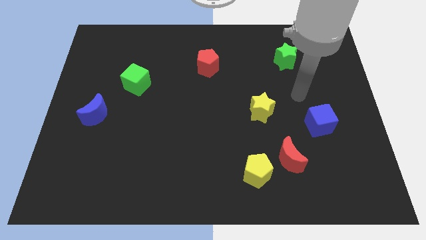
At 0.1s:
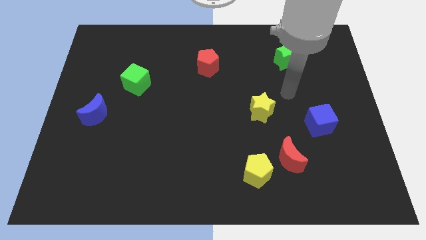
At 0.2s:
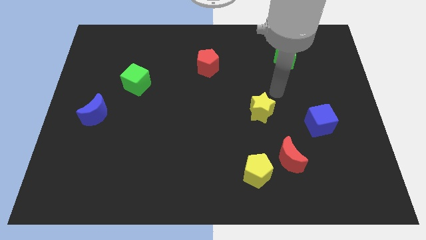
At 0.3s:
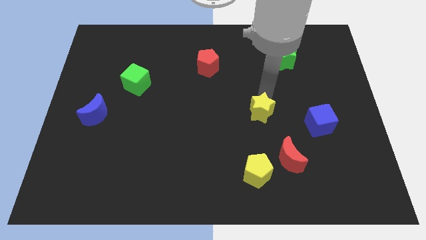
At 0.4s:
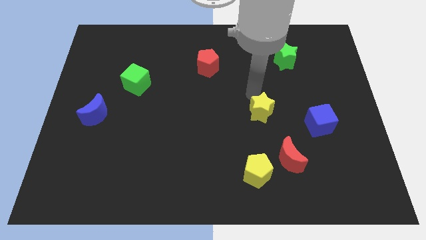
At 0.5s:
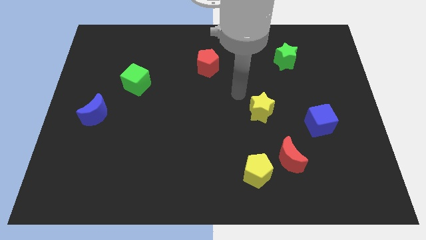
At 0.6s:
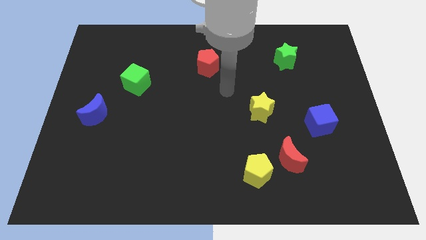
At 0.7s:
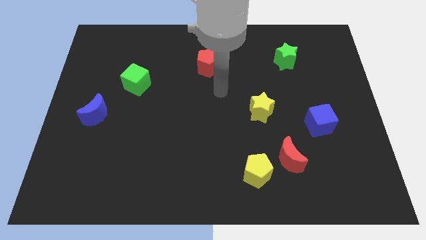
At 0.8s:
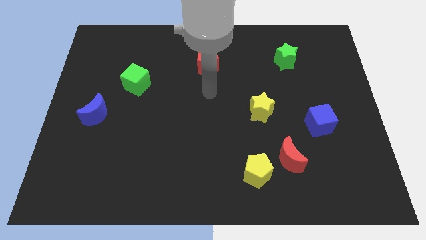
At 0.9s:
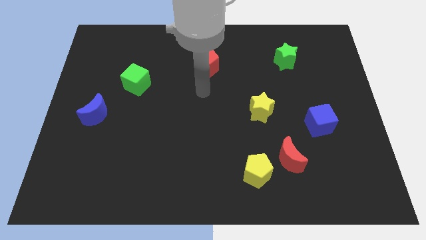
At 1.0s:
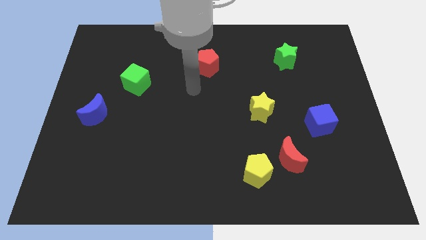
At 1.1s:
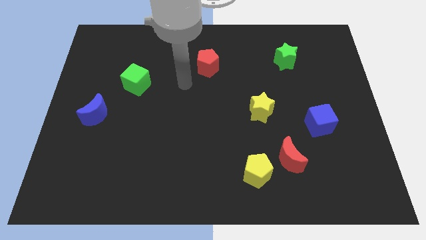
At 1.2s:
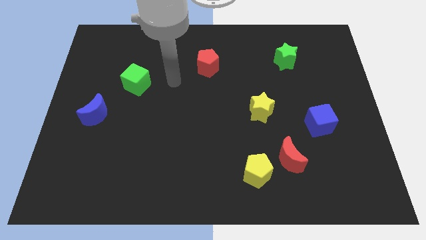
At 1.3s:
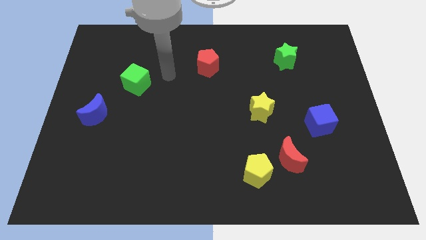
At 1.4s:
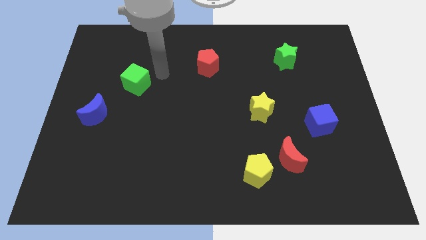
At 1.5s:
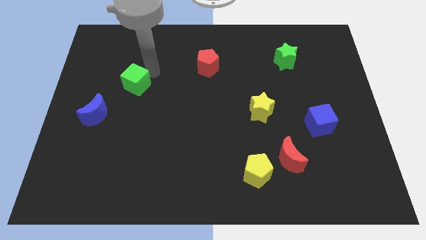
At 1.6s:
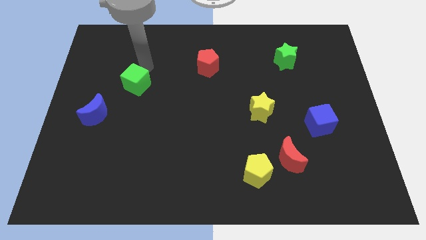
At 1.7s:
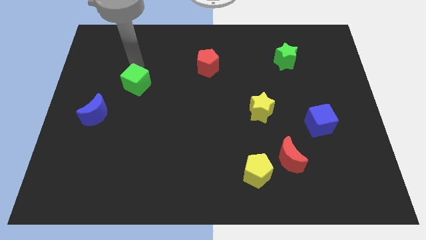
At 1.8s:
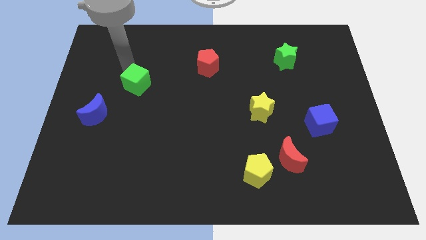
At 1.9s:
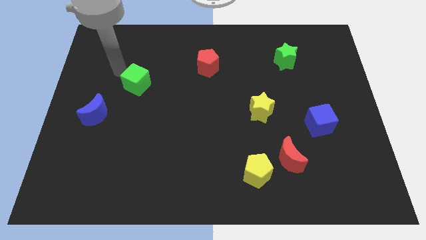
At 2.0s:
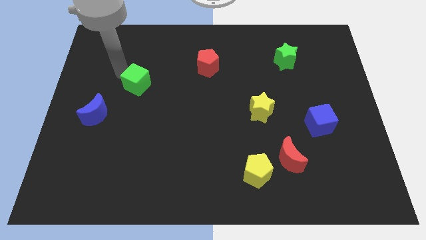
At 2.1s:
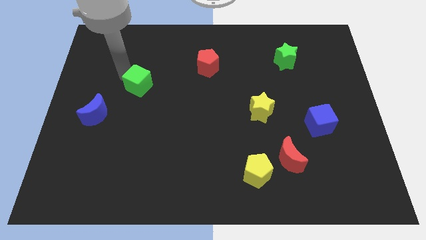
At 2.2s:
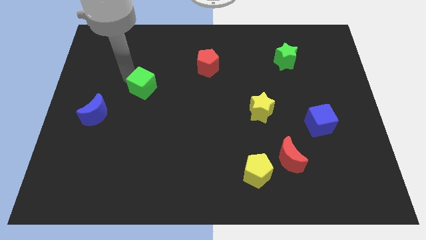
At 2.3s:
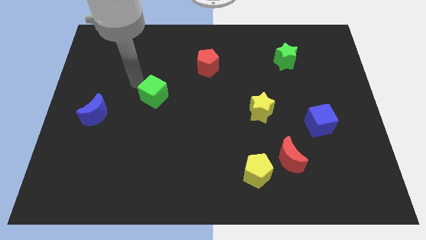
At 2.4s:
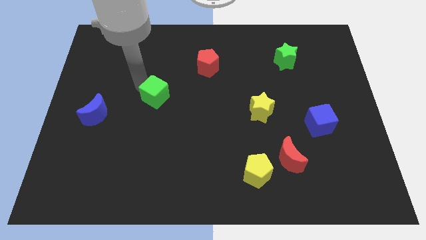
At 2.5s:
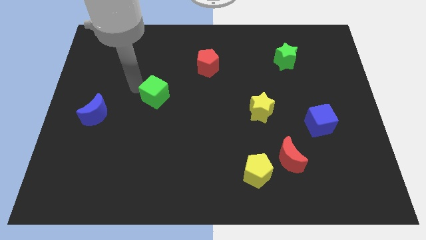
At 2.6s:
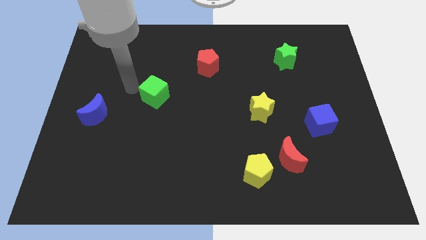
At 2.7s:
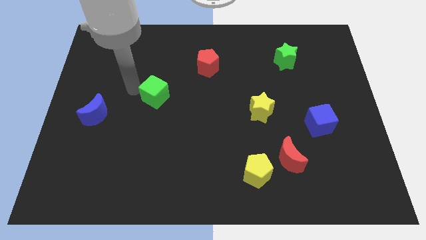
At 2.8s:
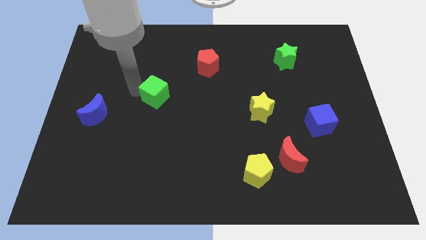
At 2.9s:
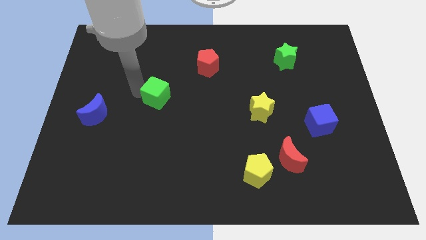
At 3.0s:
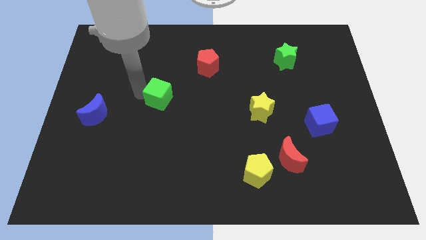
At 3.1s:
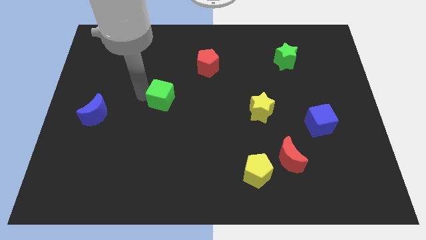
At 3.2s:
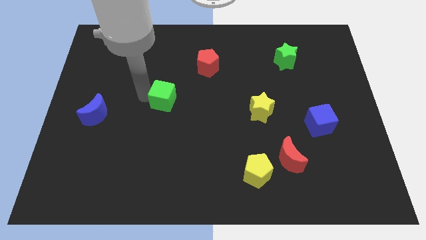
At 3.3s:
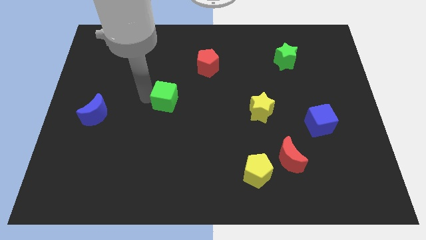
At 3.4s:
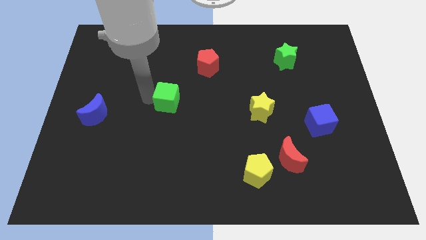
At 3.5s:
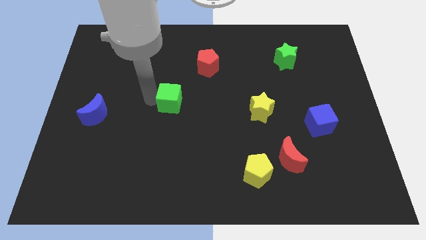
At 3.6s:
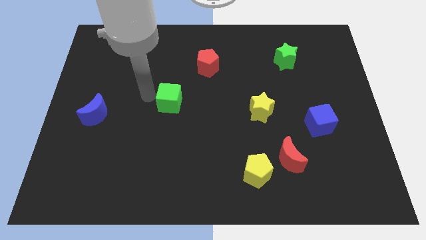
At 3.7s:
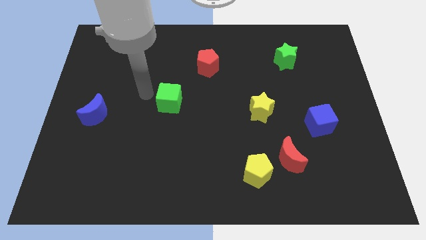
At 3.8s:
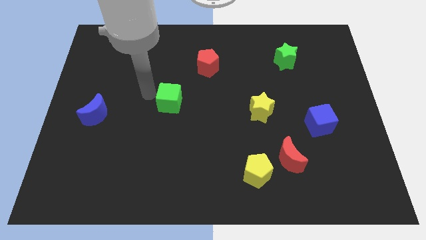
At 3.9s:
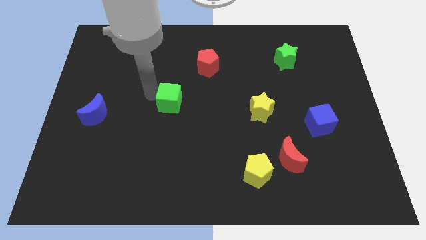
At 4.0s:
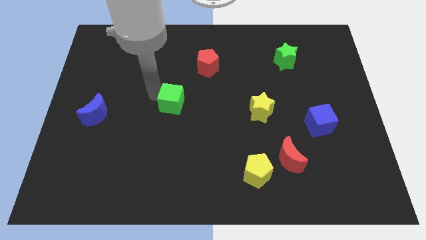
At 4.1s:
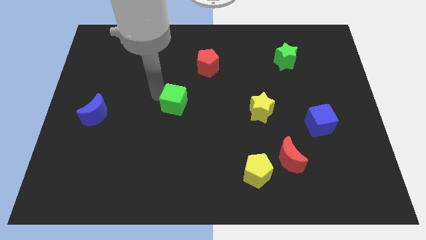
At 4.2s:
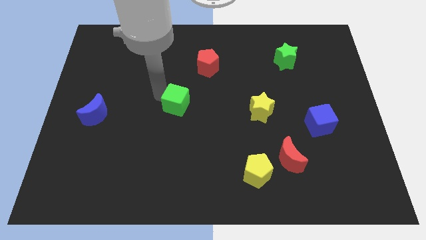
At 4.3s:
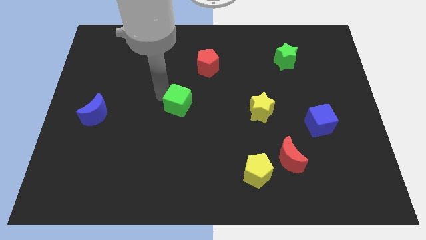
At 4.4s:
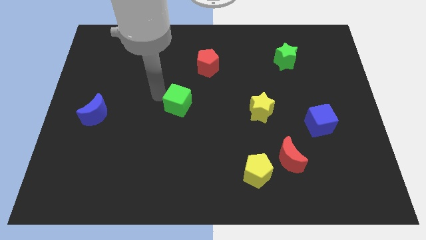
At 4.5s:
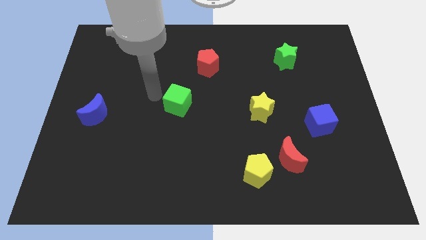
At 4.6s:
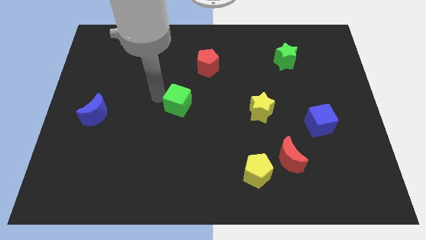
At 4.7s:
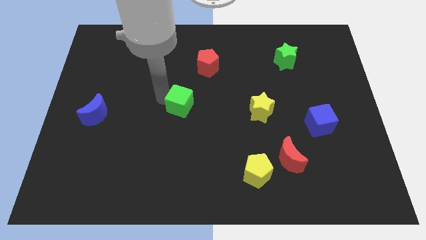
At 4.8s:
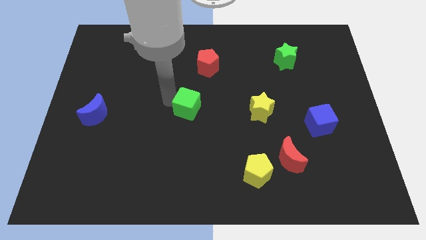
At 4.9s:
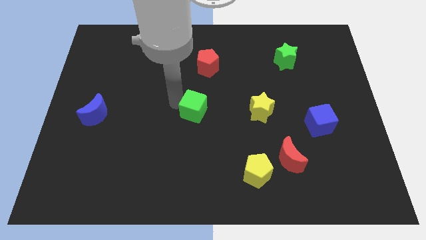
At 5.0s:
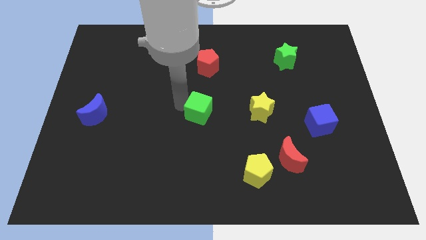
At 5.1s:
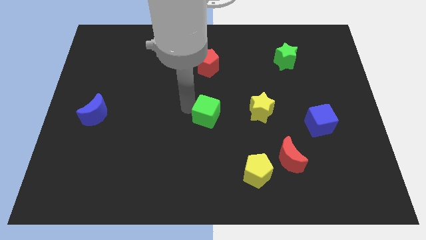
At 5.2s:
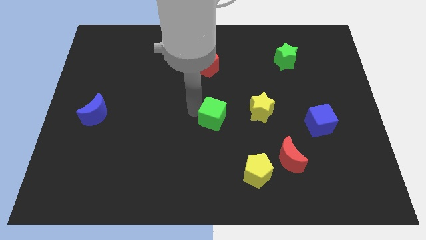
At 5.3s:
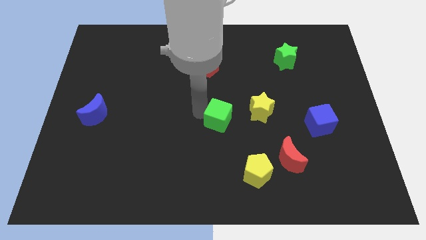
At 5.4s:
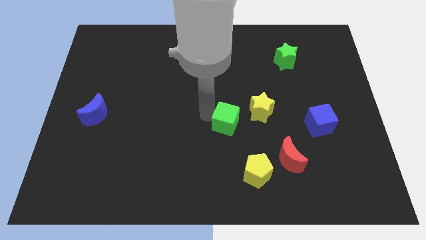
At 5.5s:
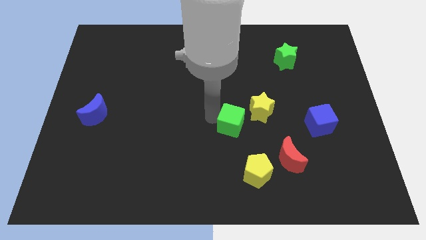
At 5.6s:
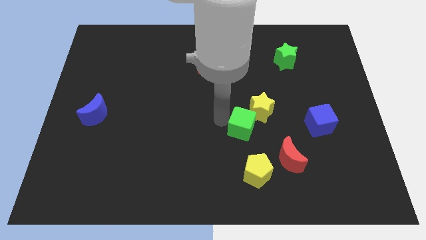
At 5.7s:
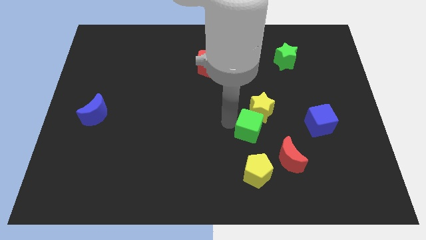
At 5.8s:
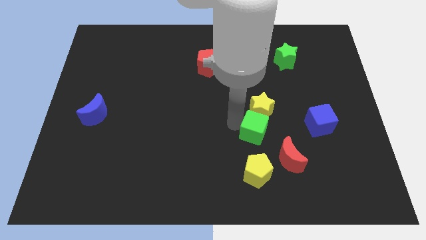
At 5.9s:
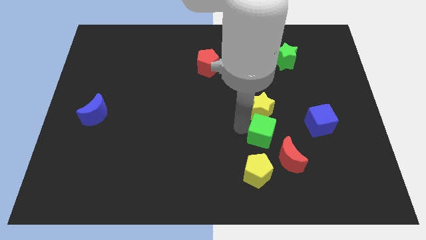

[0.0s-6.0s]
move the green cube diagonally down and to the right of the yellow star
